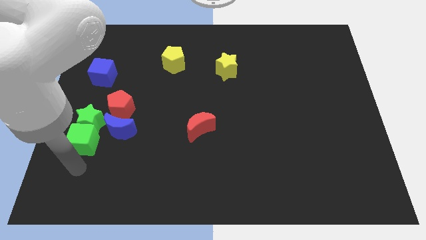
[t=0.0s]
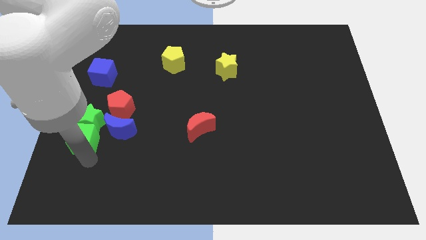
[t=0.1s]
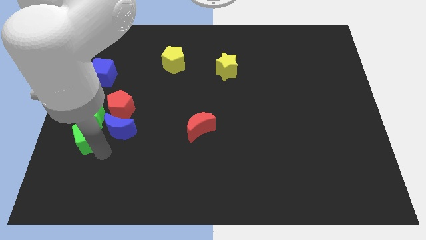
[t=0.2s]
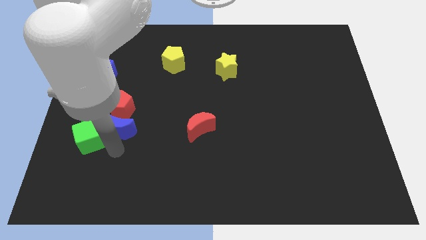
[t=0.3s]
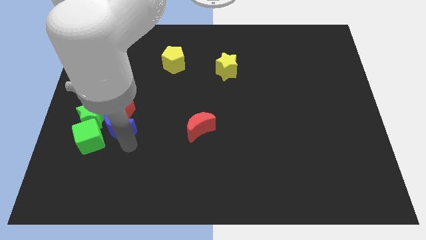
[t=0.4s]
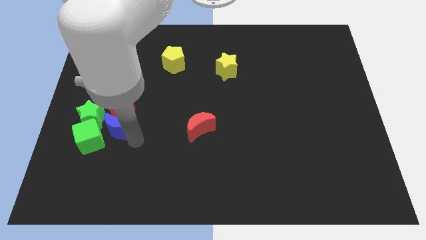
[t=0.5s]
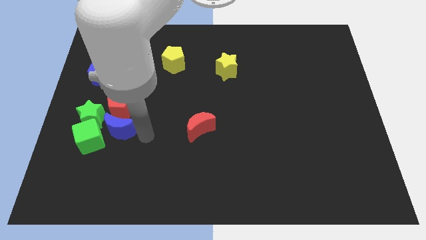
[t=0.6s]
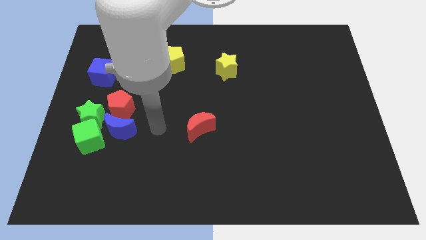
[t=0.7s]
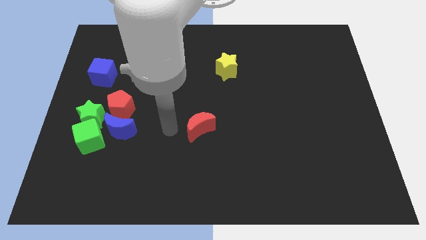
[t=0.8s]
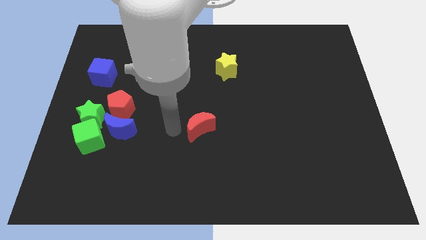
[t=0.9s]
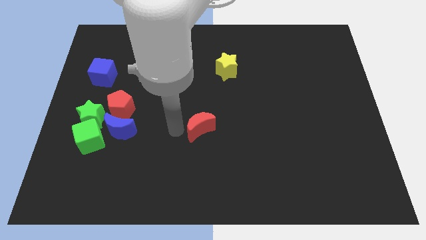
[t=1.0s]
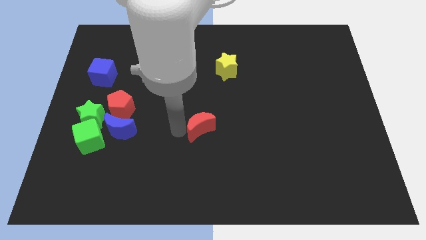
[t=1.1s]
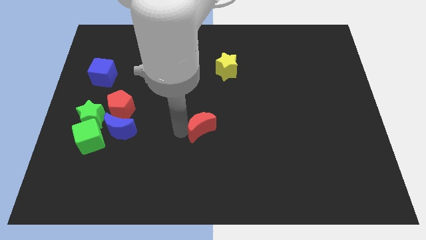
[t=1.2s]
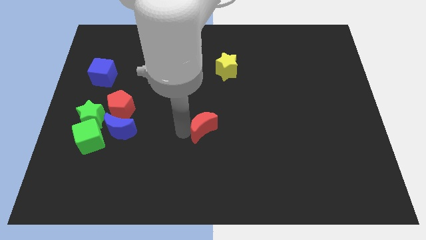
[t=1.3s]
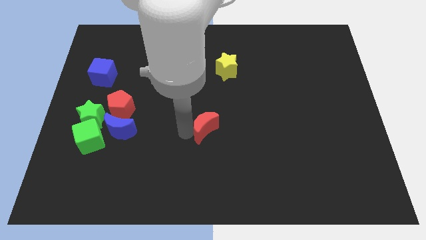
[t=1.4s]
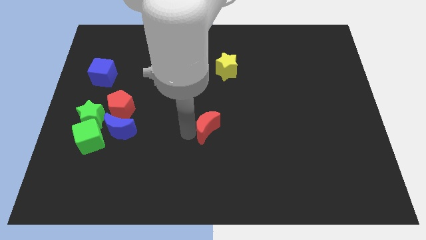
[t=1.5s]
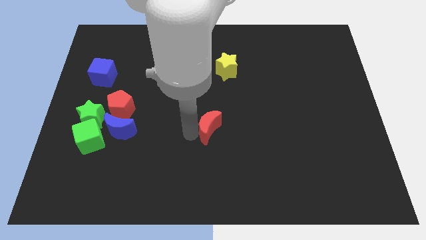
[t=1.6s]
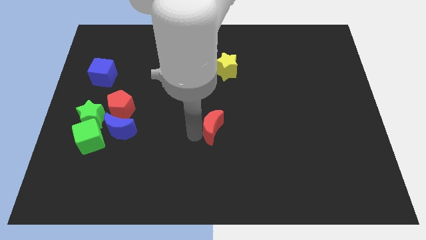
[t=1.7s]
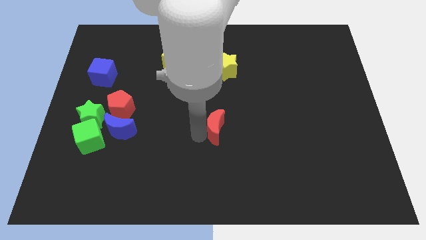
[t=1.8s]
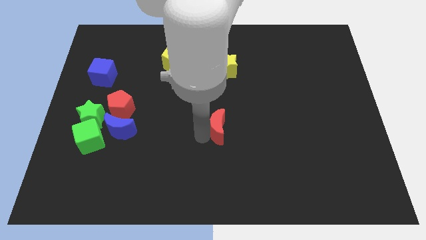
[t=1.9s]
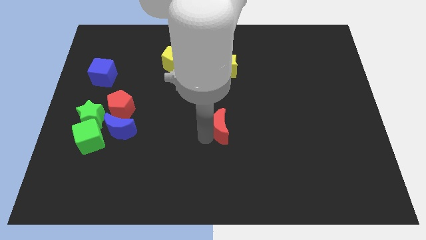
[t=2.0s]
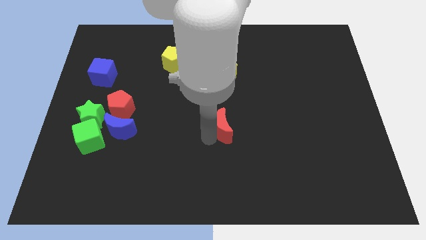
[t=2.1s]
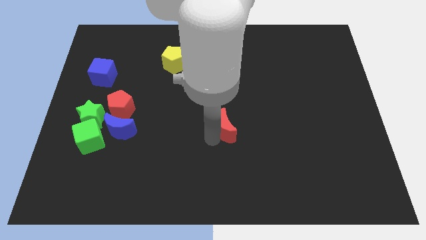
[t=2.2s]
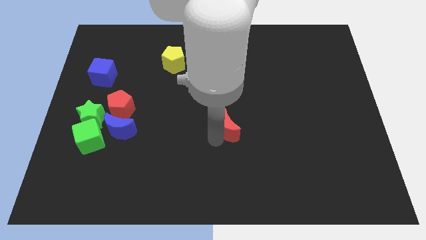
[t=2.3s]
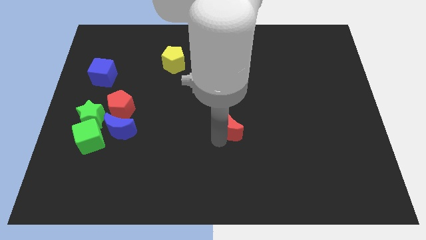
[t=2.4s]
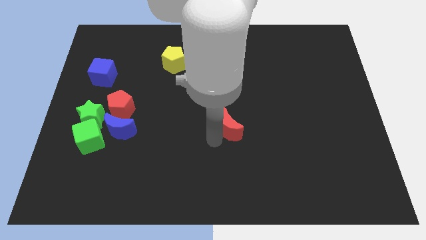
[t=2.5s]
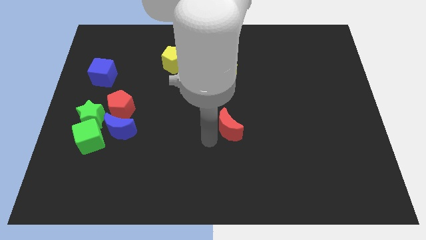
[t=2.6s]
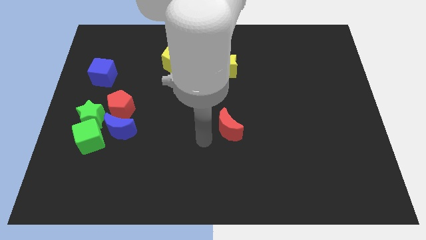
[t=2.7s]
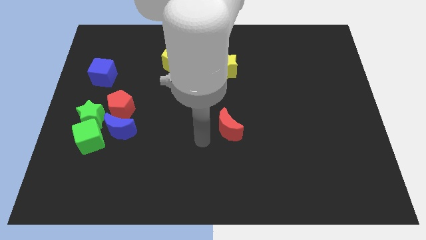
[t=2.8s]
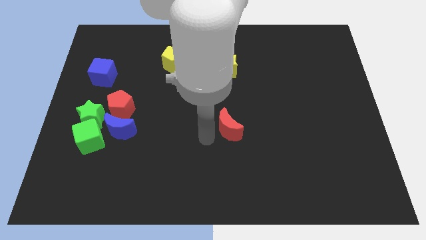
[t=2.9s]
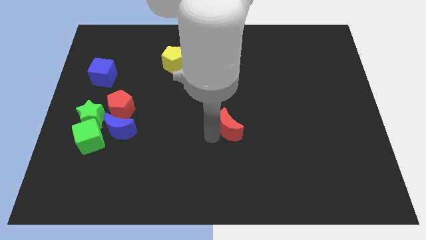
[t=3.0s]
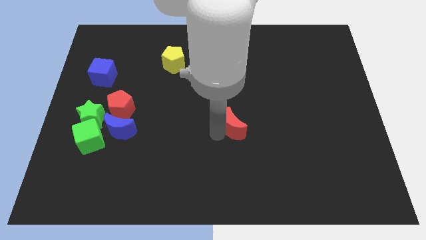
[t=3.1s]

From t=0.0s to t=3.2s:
slide the red moon a bit to the right

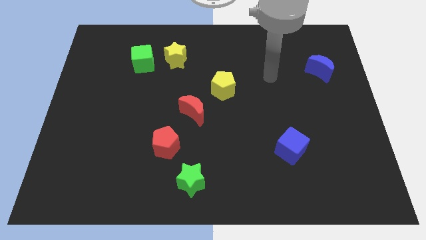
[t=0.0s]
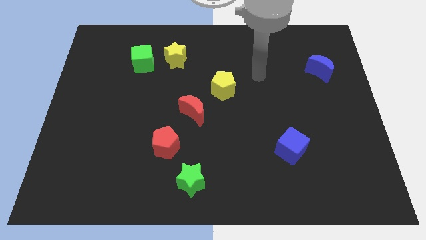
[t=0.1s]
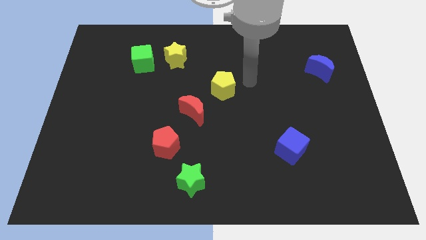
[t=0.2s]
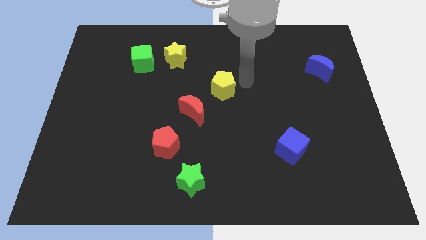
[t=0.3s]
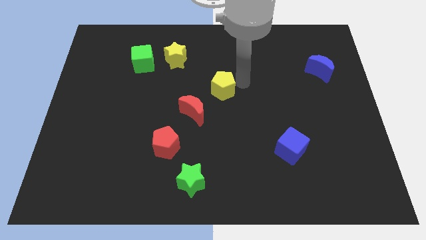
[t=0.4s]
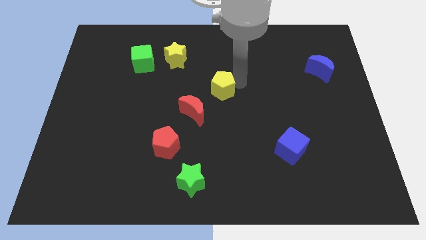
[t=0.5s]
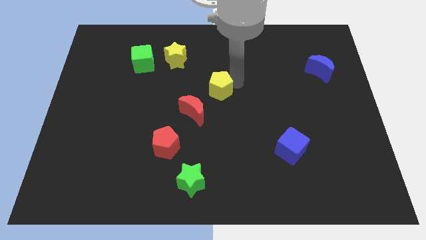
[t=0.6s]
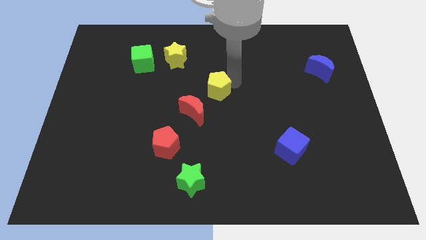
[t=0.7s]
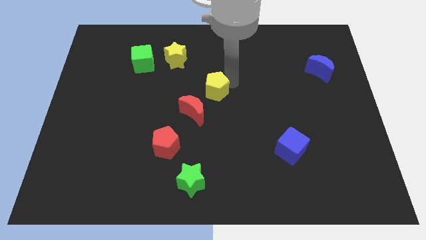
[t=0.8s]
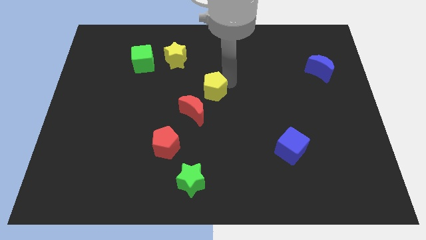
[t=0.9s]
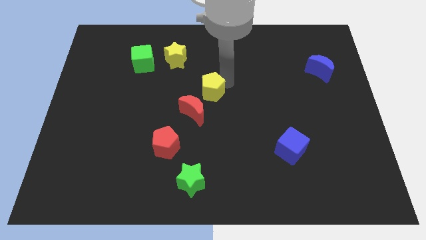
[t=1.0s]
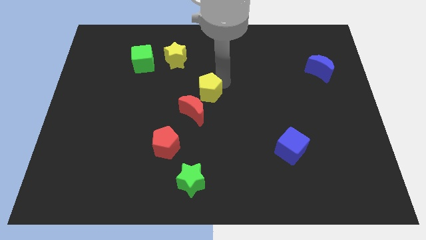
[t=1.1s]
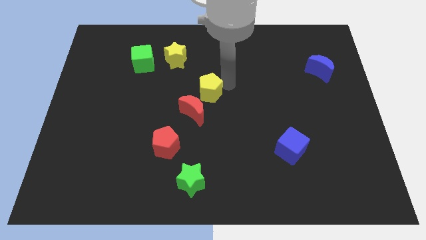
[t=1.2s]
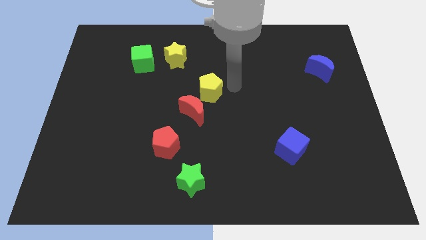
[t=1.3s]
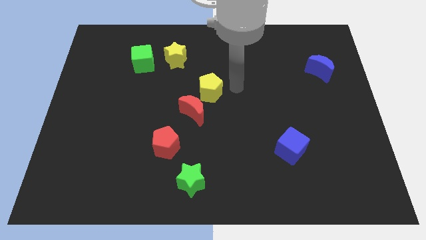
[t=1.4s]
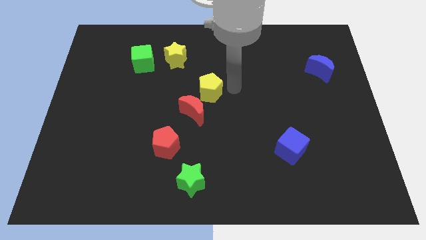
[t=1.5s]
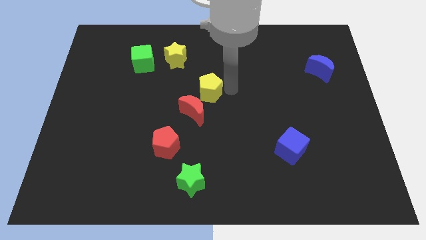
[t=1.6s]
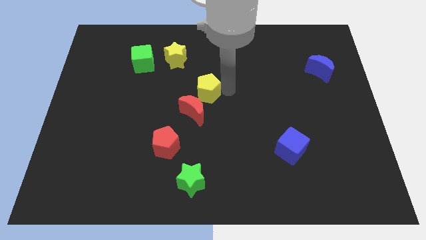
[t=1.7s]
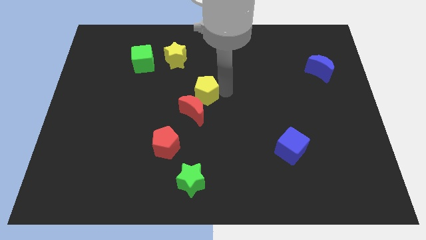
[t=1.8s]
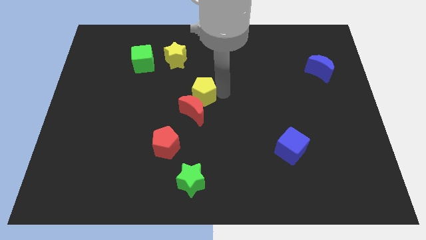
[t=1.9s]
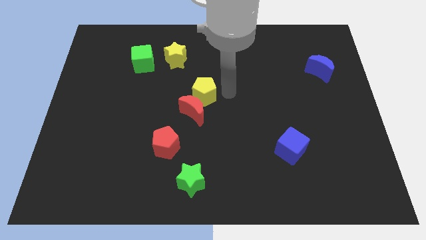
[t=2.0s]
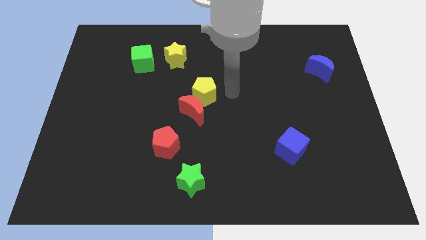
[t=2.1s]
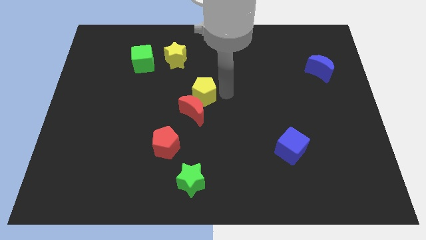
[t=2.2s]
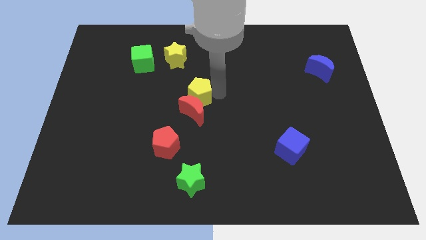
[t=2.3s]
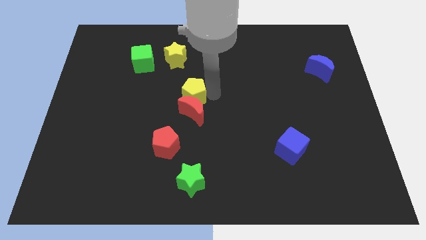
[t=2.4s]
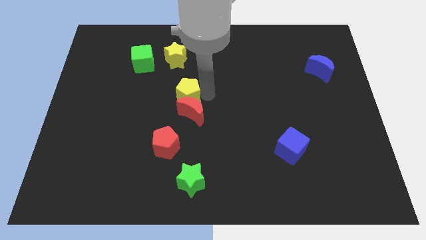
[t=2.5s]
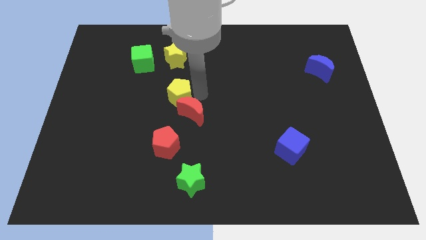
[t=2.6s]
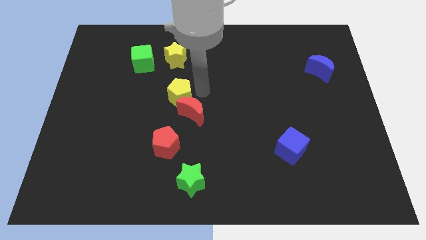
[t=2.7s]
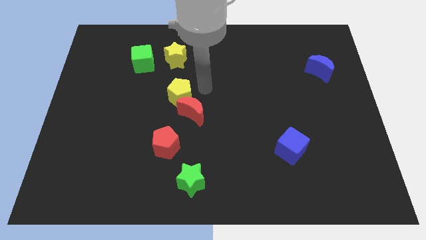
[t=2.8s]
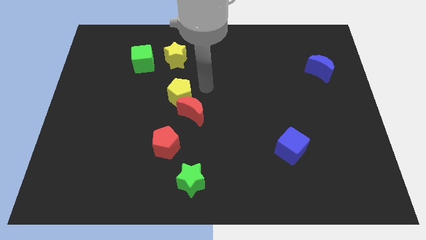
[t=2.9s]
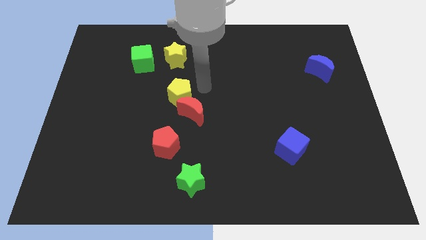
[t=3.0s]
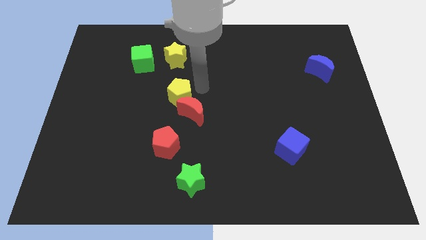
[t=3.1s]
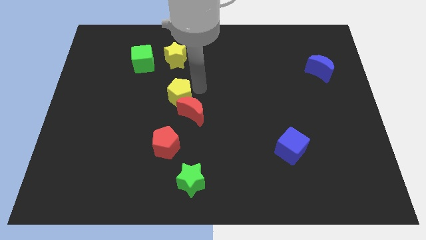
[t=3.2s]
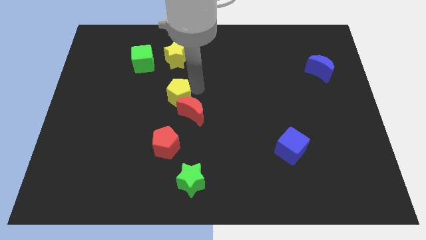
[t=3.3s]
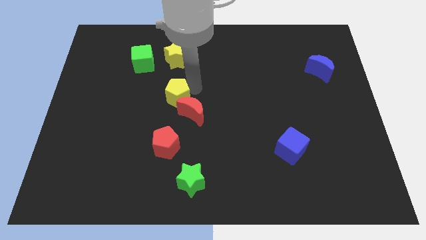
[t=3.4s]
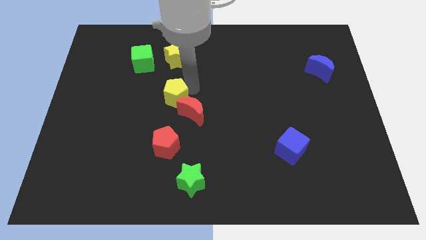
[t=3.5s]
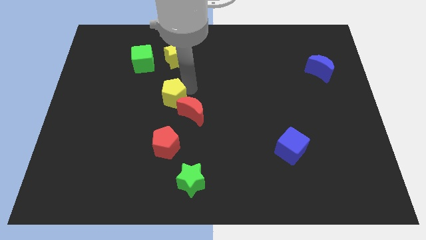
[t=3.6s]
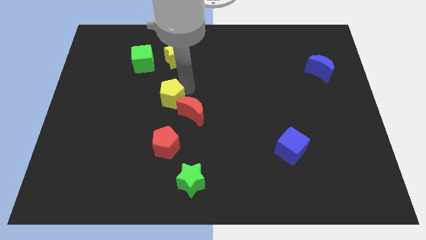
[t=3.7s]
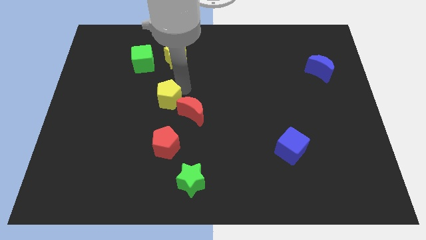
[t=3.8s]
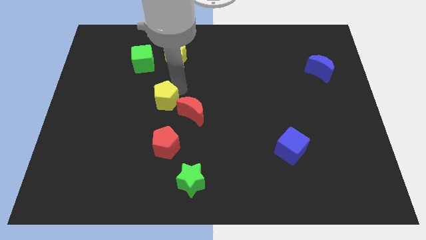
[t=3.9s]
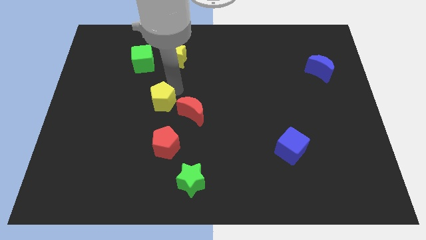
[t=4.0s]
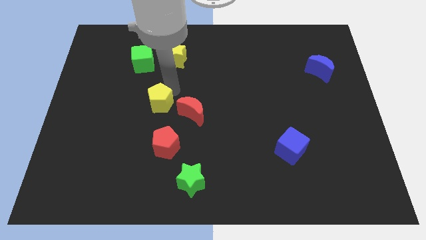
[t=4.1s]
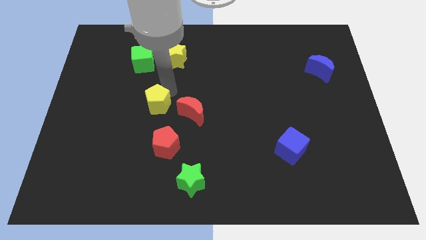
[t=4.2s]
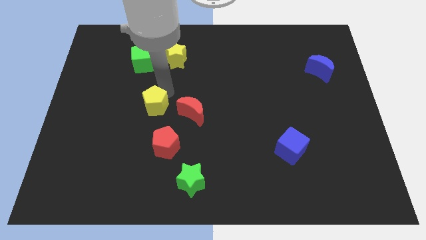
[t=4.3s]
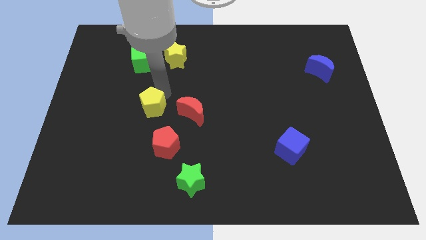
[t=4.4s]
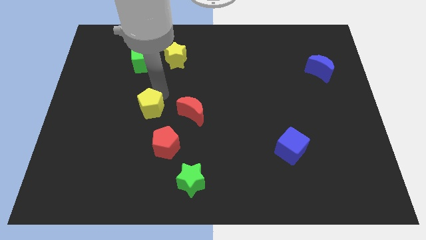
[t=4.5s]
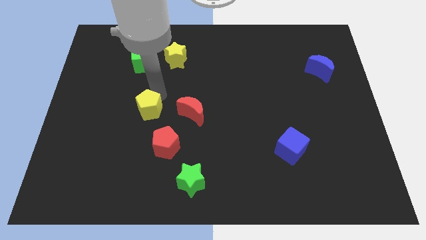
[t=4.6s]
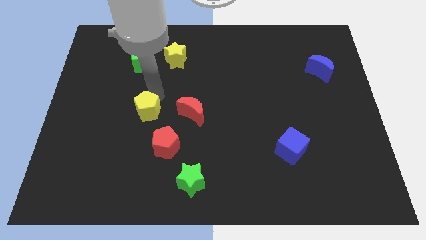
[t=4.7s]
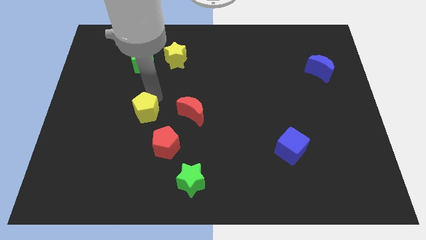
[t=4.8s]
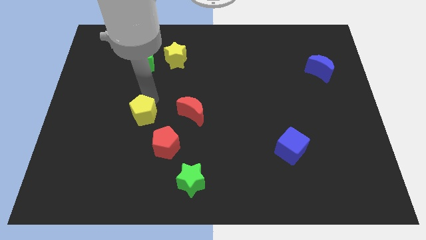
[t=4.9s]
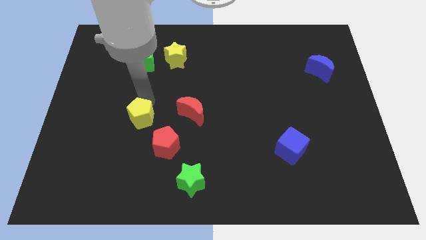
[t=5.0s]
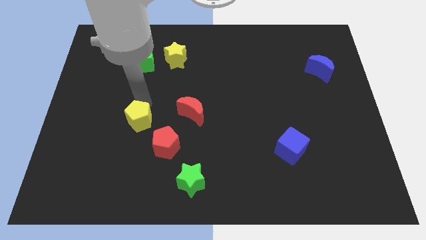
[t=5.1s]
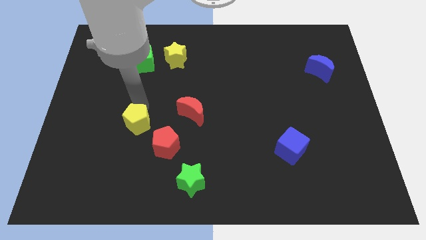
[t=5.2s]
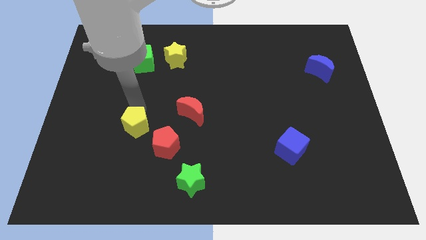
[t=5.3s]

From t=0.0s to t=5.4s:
slide the yellow pentagon down and left
